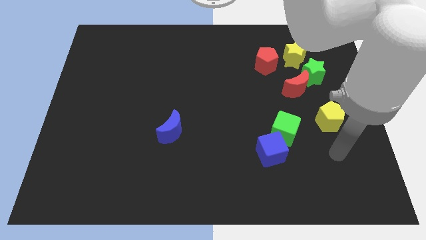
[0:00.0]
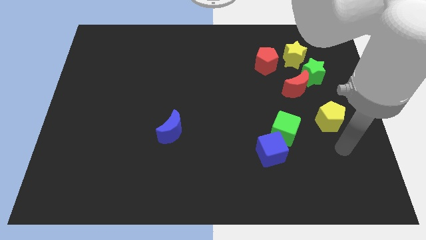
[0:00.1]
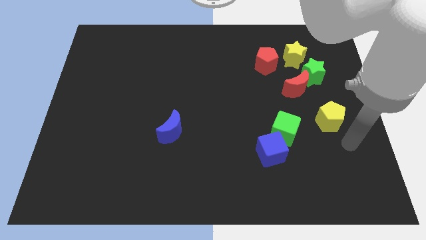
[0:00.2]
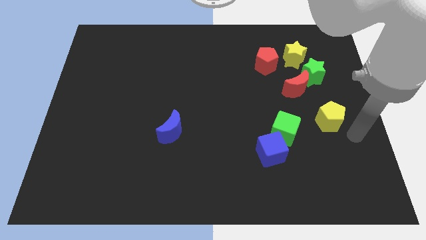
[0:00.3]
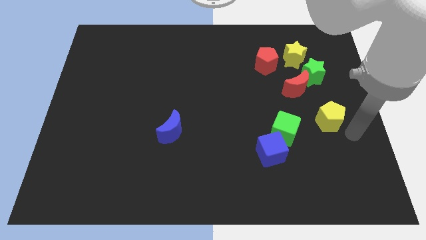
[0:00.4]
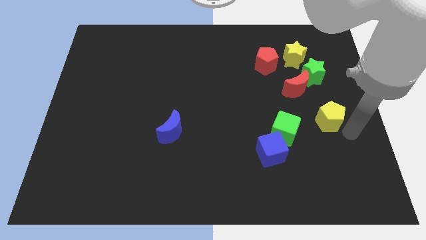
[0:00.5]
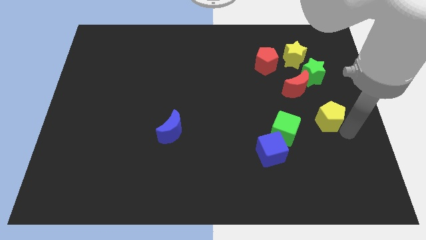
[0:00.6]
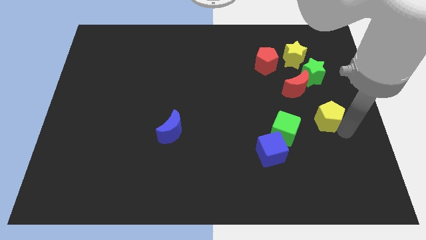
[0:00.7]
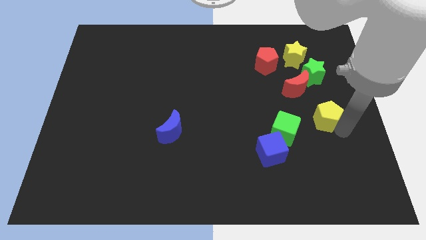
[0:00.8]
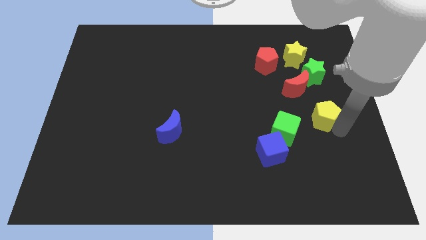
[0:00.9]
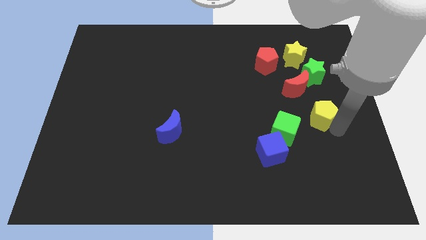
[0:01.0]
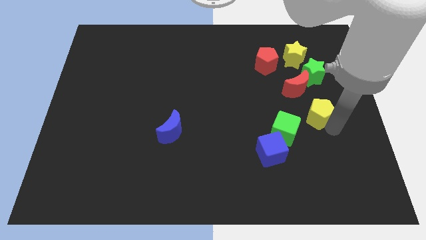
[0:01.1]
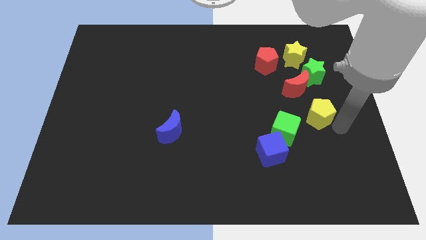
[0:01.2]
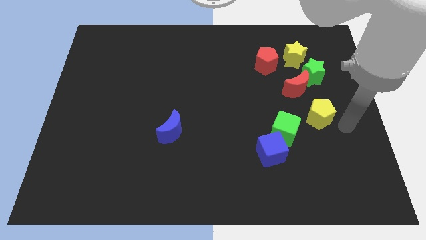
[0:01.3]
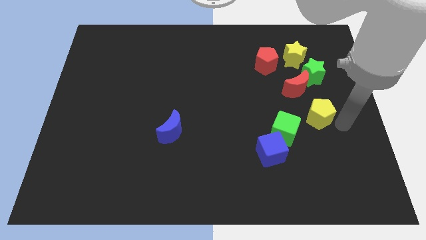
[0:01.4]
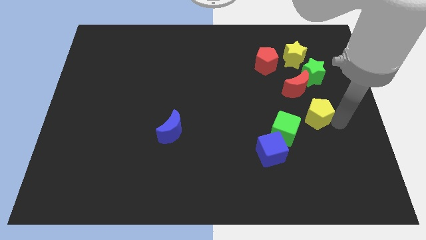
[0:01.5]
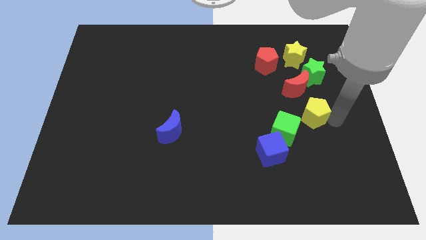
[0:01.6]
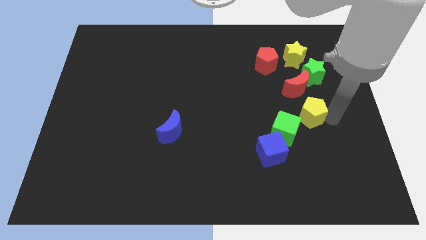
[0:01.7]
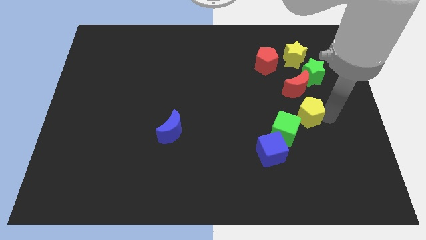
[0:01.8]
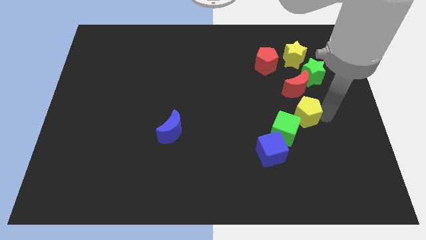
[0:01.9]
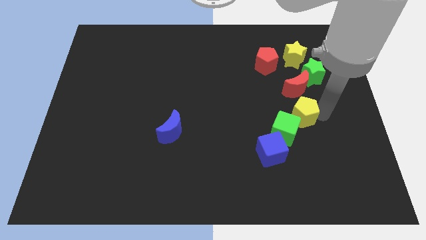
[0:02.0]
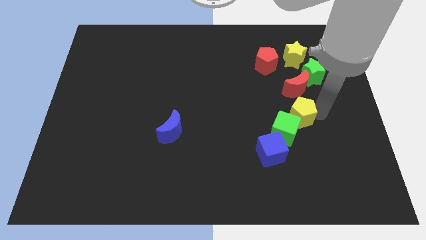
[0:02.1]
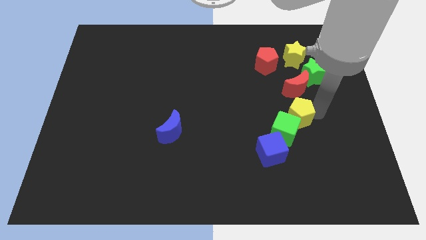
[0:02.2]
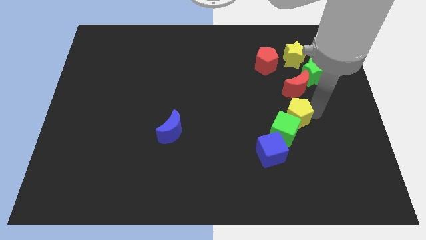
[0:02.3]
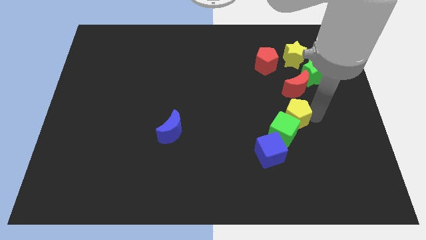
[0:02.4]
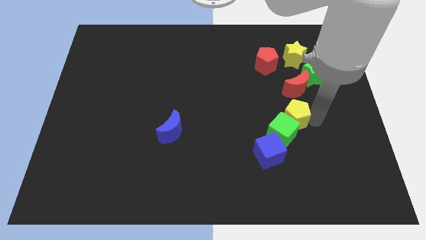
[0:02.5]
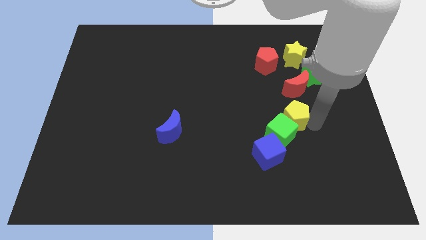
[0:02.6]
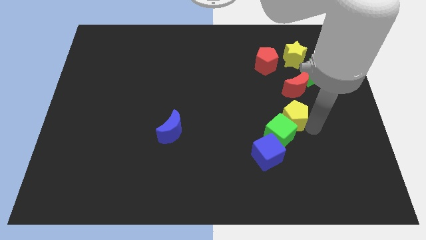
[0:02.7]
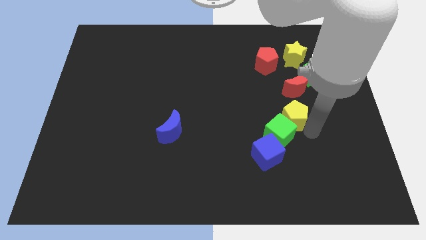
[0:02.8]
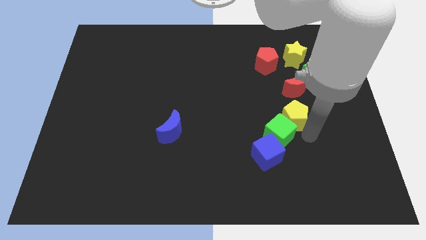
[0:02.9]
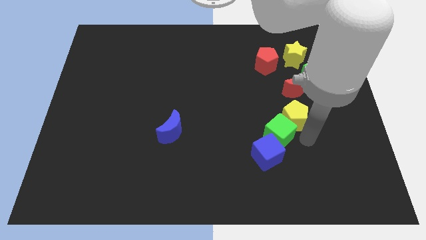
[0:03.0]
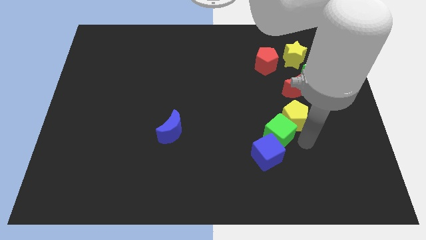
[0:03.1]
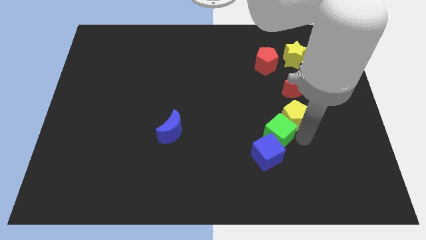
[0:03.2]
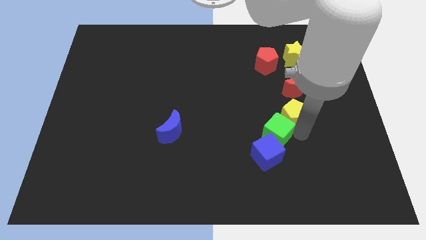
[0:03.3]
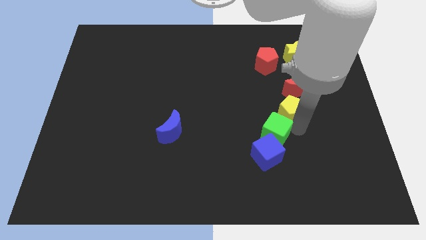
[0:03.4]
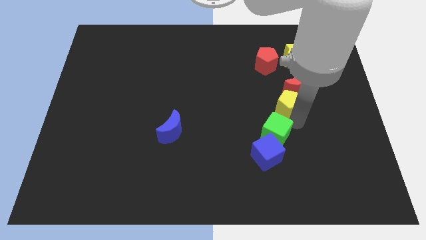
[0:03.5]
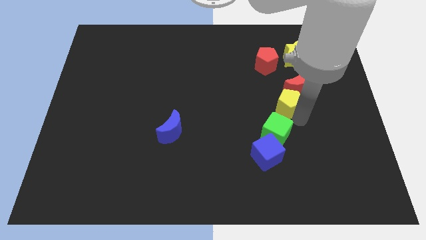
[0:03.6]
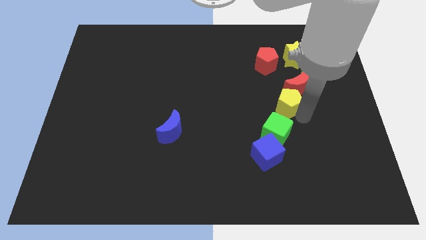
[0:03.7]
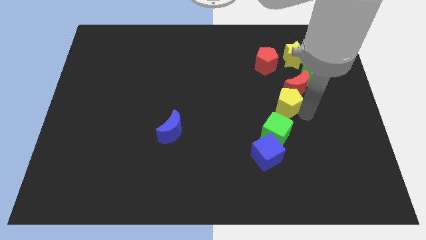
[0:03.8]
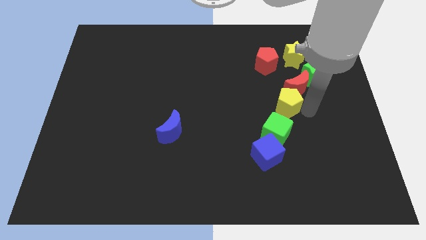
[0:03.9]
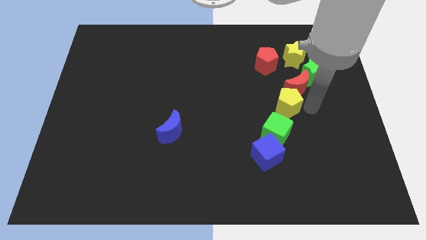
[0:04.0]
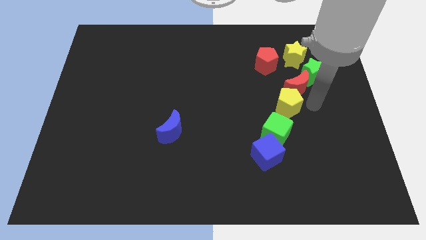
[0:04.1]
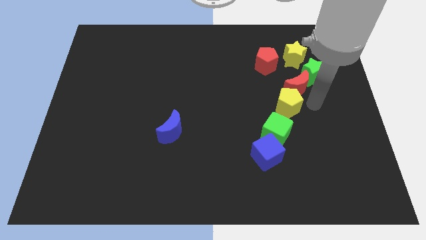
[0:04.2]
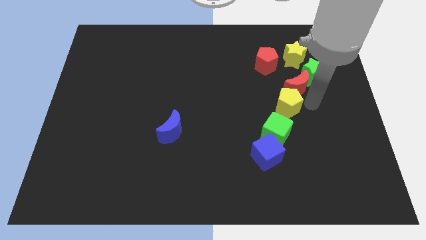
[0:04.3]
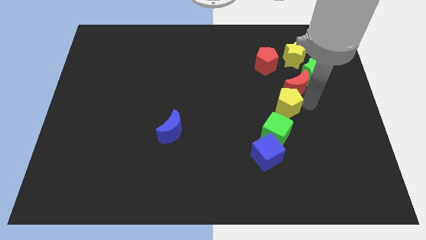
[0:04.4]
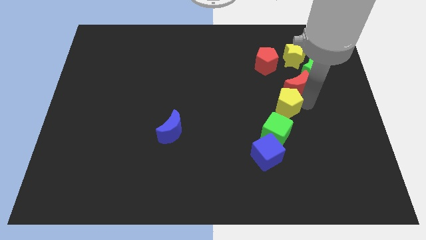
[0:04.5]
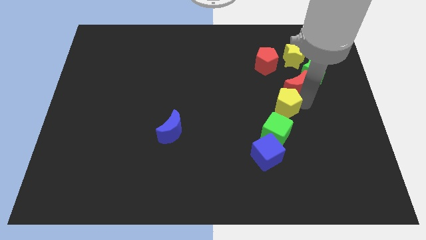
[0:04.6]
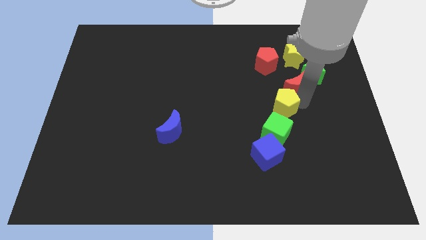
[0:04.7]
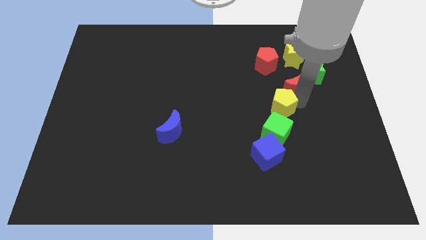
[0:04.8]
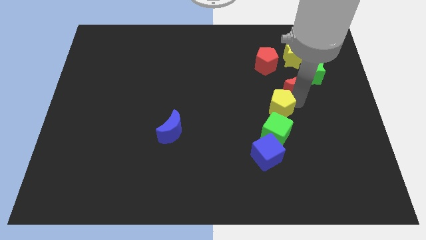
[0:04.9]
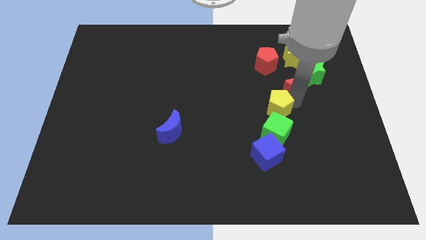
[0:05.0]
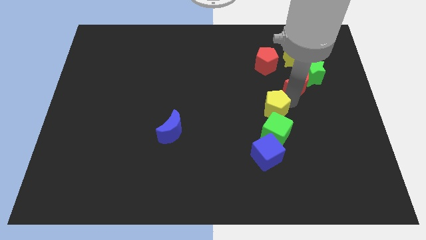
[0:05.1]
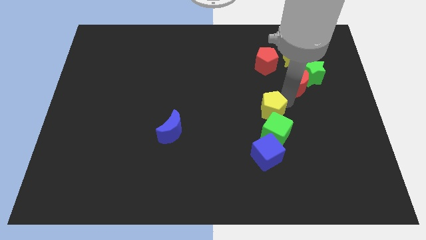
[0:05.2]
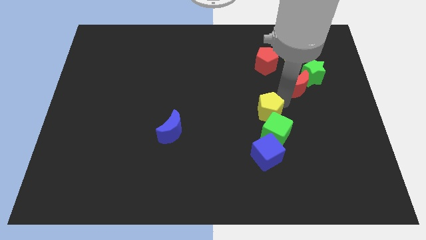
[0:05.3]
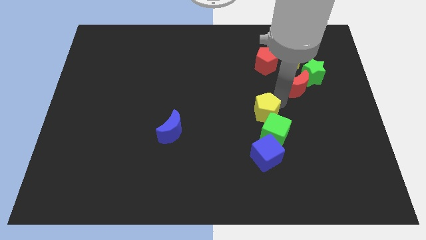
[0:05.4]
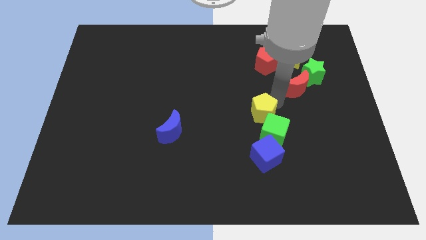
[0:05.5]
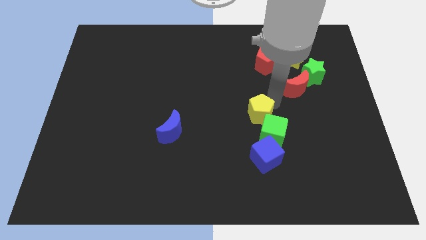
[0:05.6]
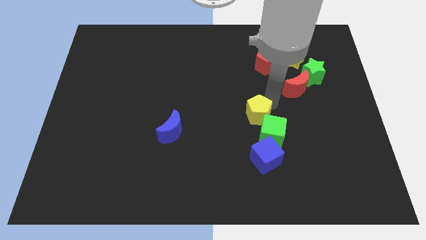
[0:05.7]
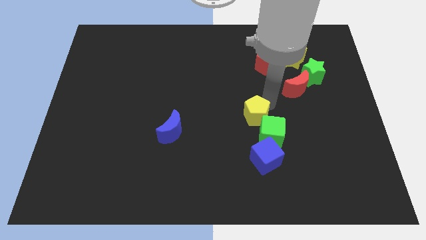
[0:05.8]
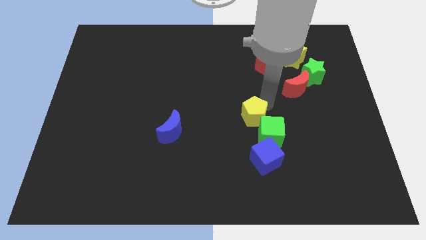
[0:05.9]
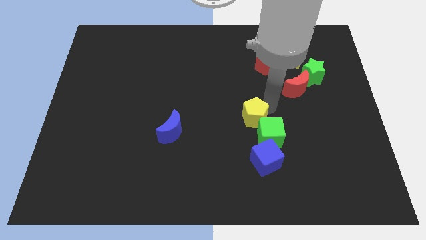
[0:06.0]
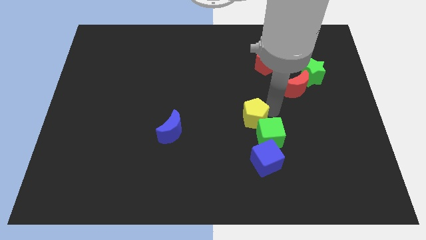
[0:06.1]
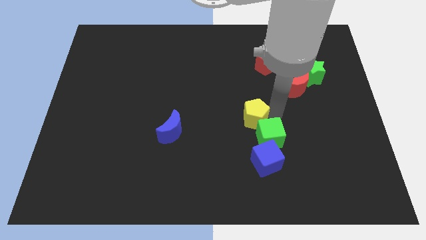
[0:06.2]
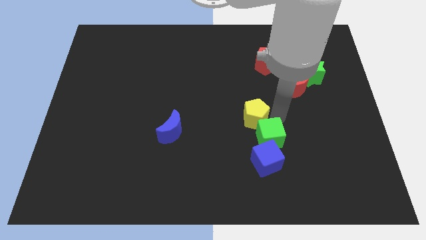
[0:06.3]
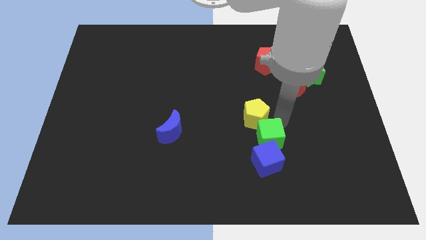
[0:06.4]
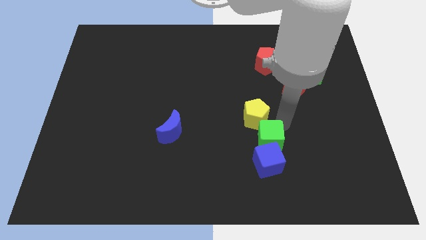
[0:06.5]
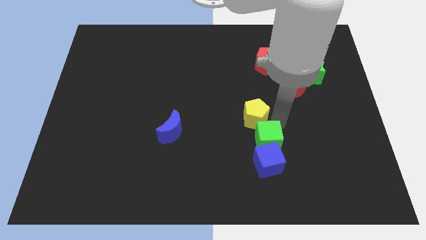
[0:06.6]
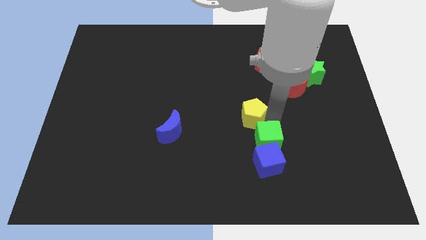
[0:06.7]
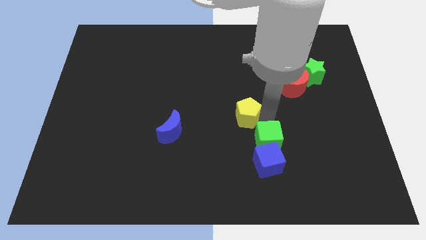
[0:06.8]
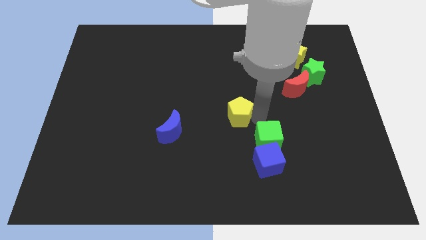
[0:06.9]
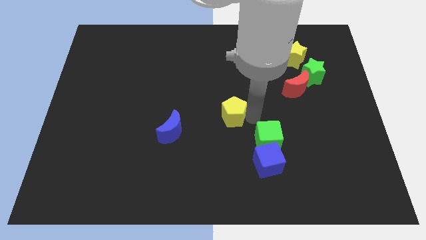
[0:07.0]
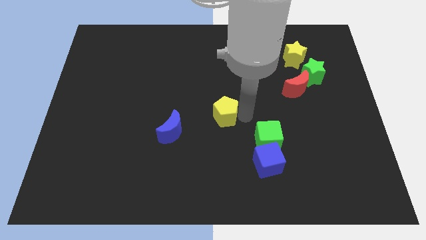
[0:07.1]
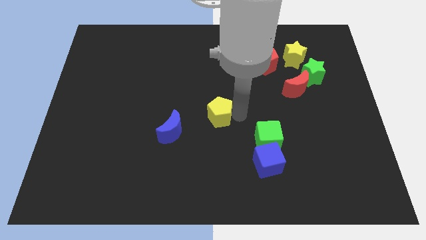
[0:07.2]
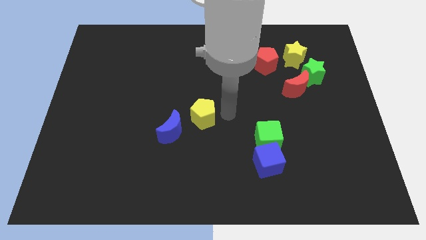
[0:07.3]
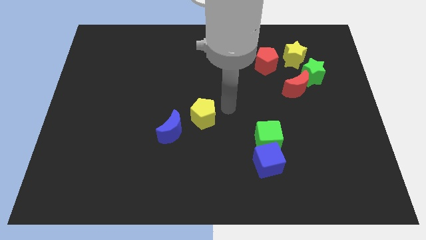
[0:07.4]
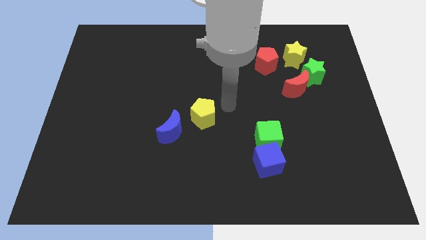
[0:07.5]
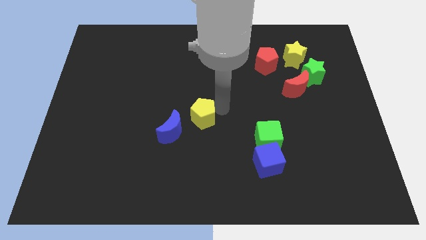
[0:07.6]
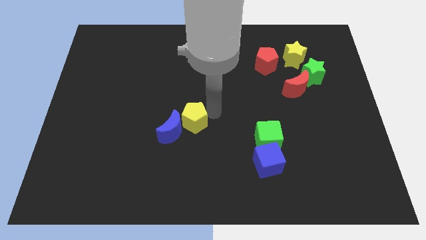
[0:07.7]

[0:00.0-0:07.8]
move the yellow pentagon next to the blue moon
